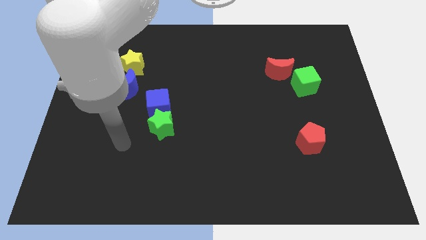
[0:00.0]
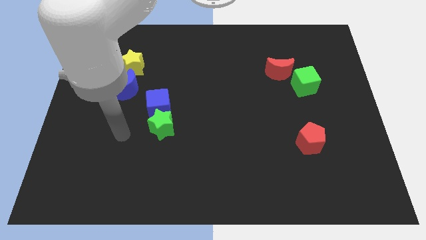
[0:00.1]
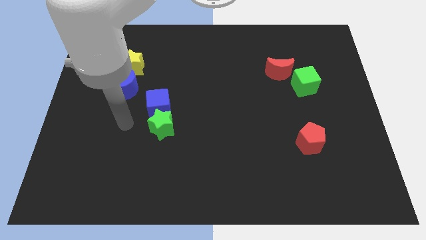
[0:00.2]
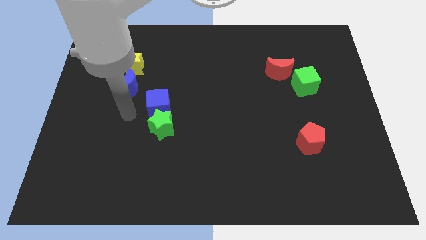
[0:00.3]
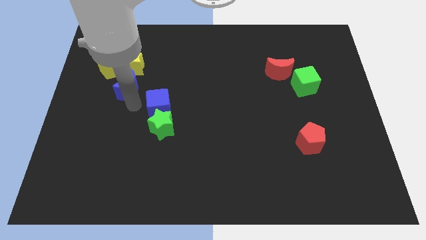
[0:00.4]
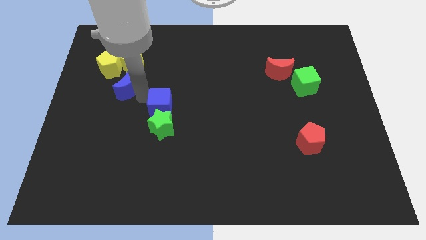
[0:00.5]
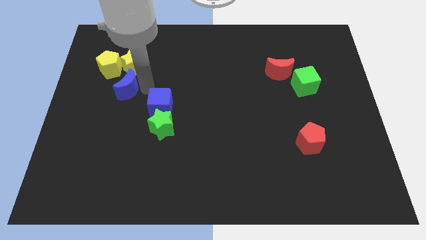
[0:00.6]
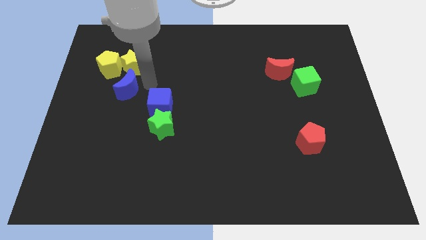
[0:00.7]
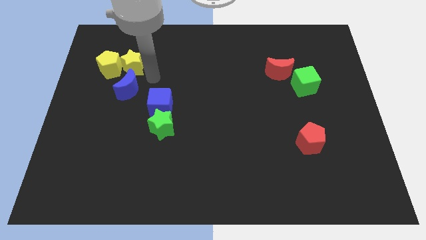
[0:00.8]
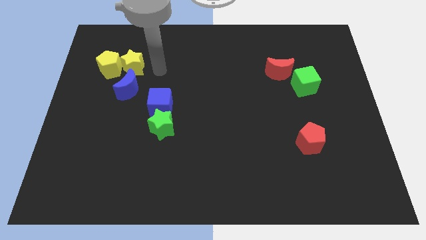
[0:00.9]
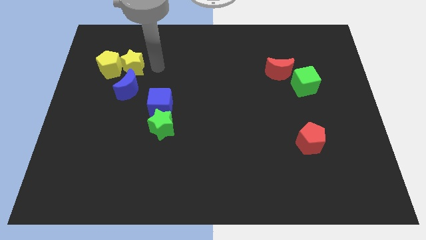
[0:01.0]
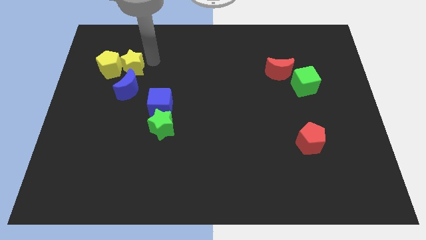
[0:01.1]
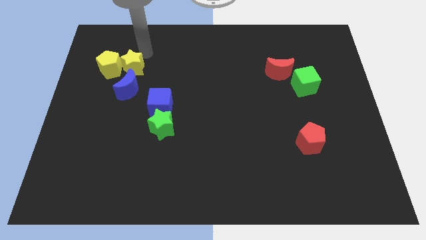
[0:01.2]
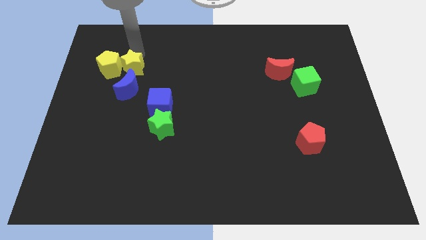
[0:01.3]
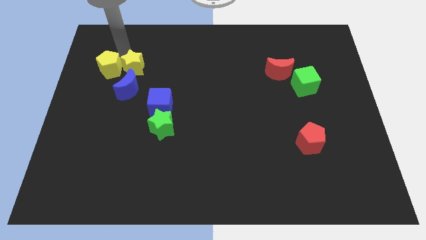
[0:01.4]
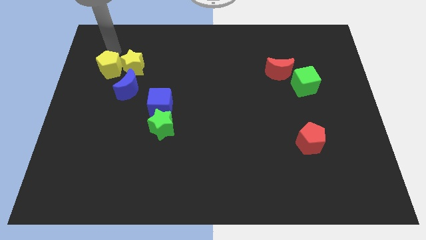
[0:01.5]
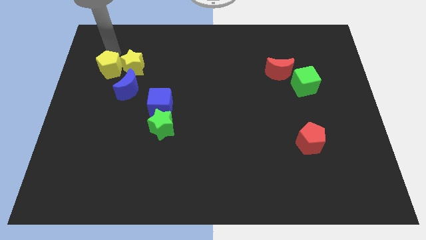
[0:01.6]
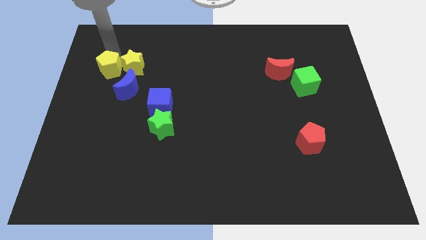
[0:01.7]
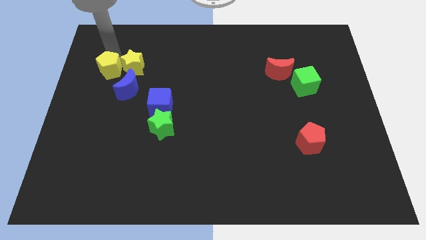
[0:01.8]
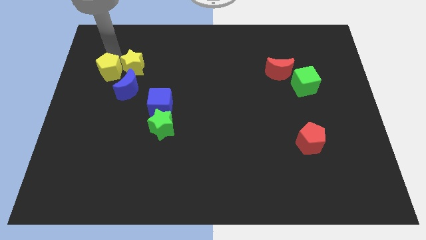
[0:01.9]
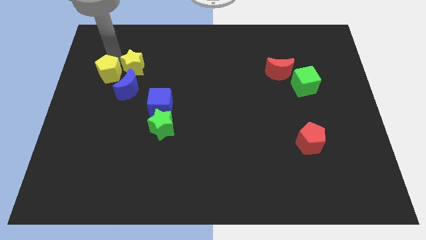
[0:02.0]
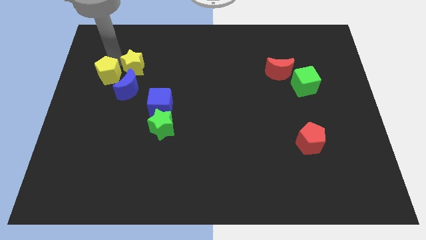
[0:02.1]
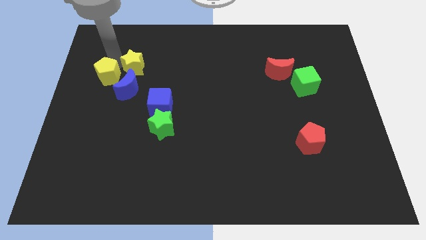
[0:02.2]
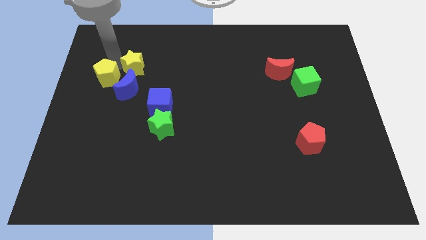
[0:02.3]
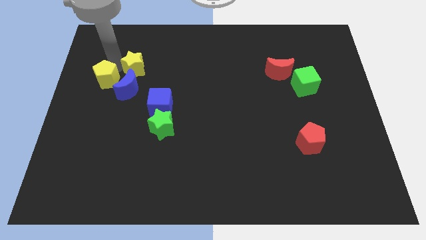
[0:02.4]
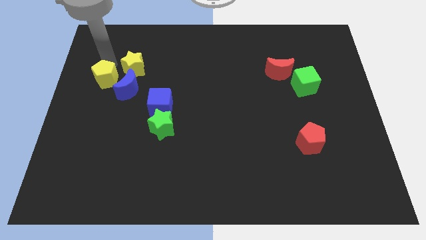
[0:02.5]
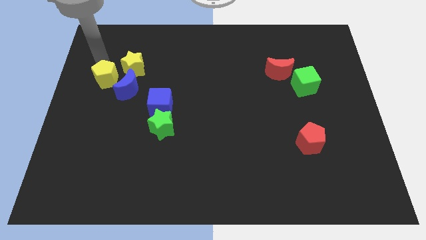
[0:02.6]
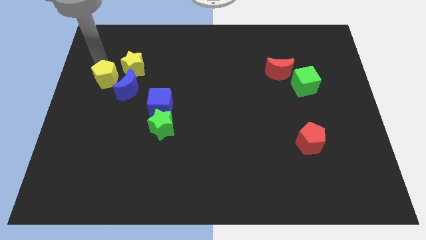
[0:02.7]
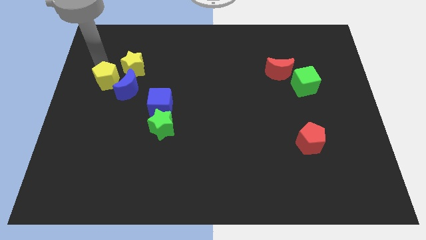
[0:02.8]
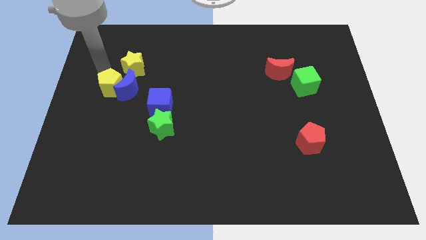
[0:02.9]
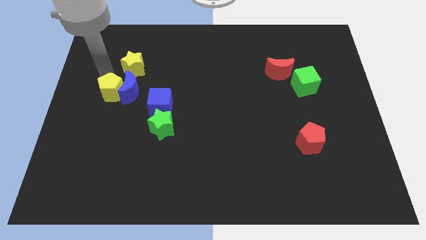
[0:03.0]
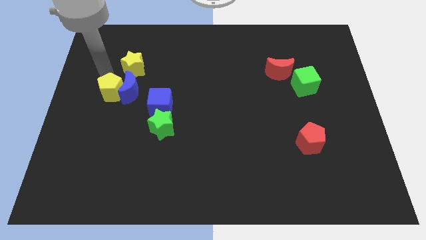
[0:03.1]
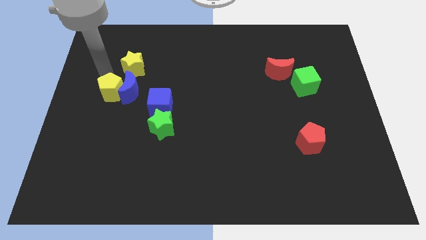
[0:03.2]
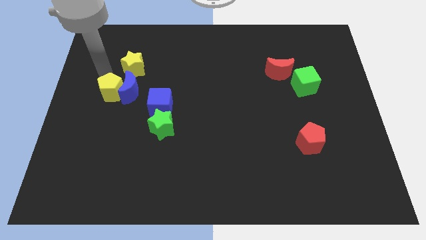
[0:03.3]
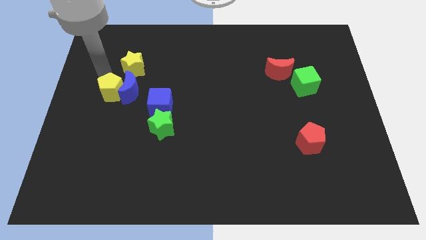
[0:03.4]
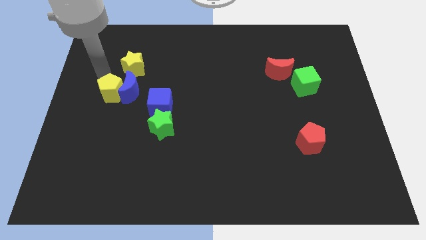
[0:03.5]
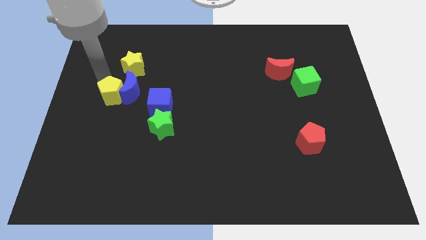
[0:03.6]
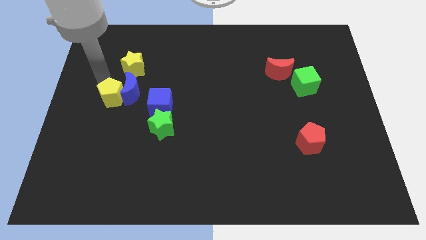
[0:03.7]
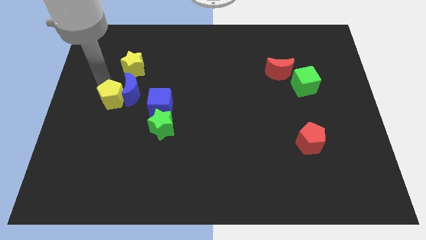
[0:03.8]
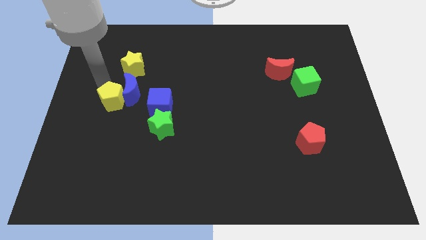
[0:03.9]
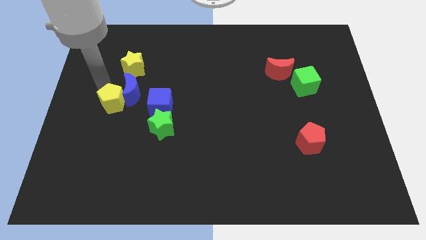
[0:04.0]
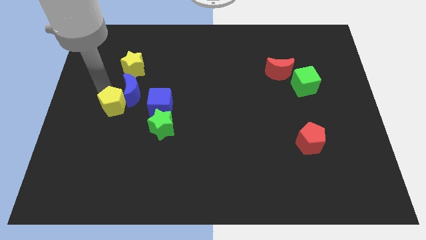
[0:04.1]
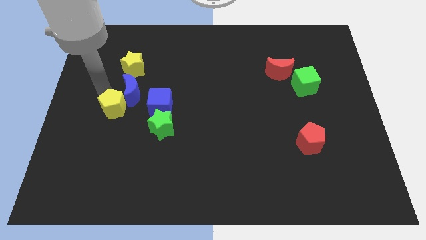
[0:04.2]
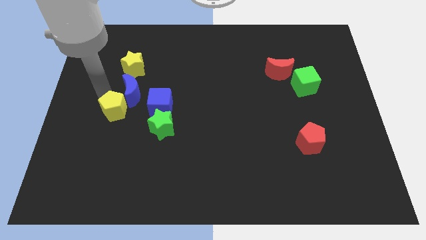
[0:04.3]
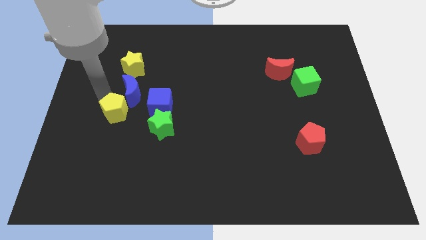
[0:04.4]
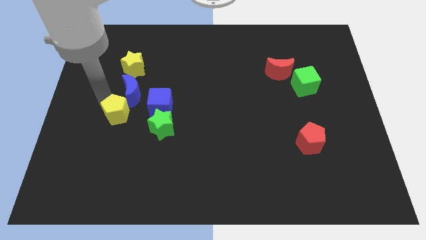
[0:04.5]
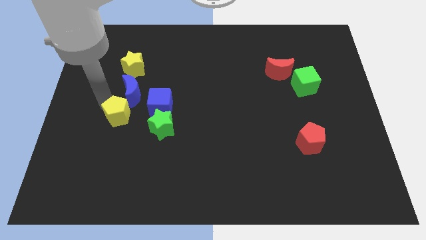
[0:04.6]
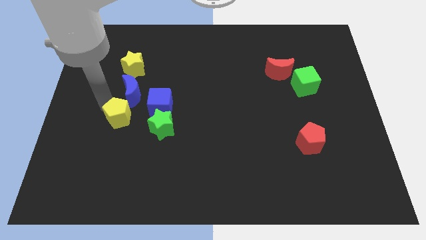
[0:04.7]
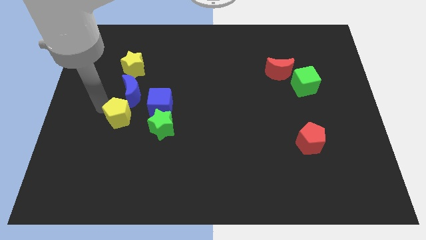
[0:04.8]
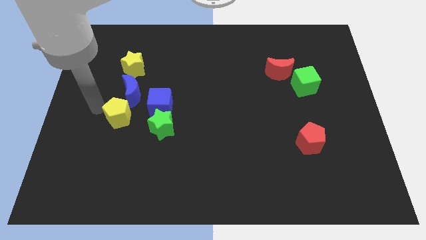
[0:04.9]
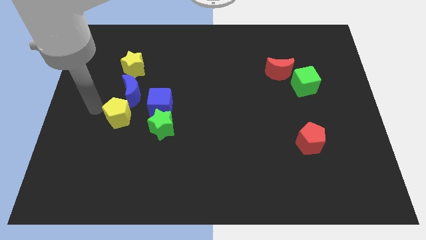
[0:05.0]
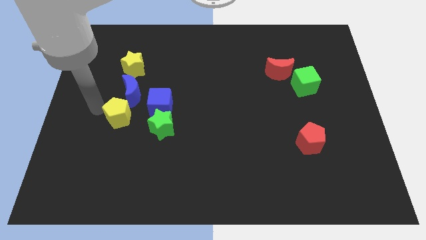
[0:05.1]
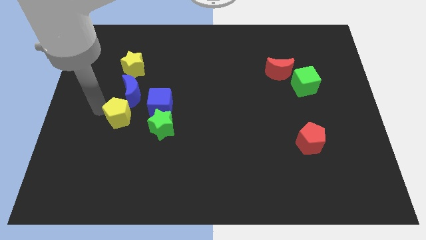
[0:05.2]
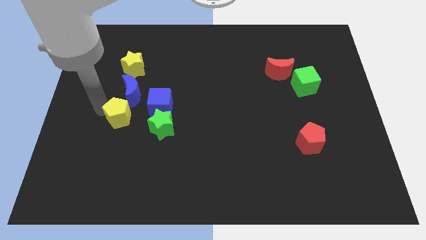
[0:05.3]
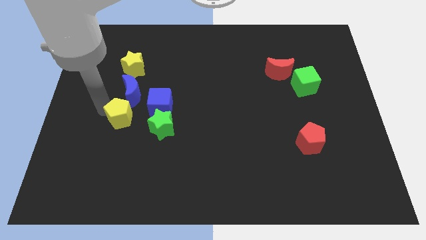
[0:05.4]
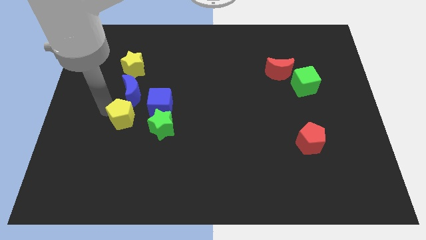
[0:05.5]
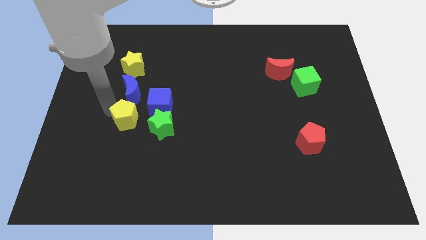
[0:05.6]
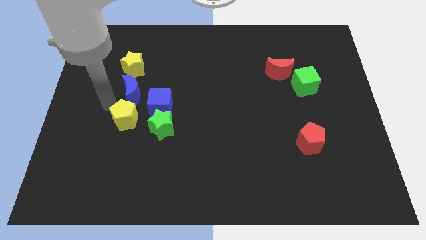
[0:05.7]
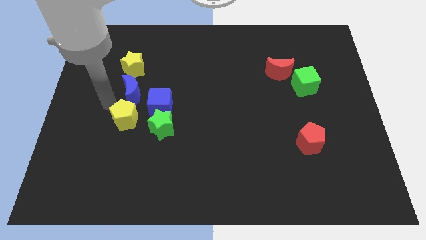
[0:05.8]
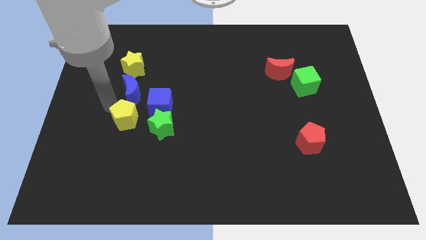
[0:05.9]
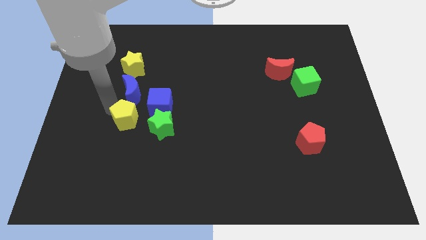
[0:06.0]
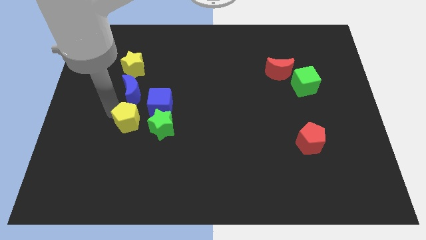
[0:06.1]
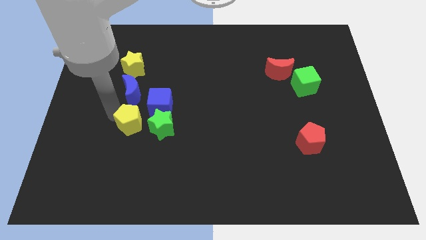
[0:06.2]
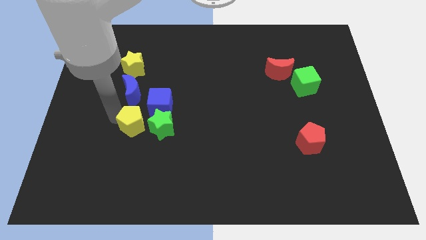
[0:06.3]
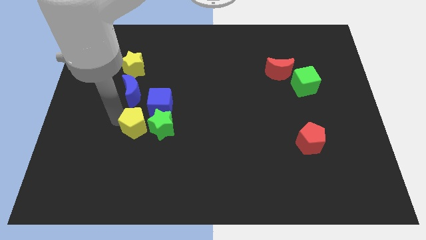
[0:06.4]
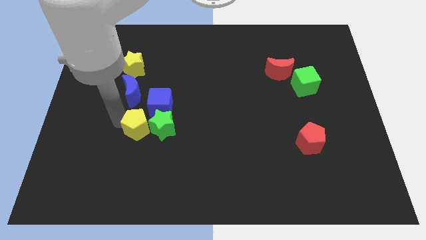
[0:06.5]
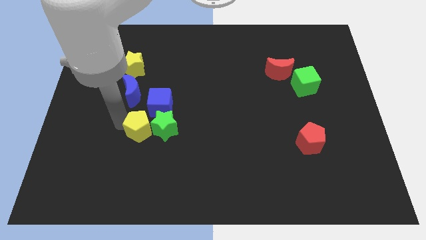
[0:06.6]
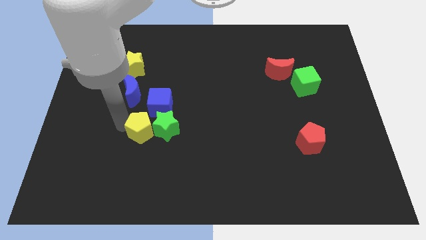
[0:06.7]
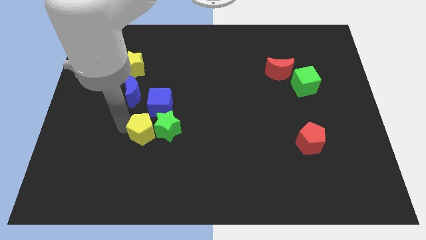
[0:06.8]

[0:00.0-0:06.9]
push the yellow pentagon down and then to the right

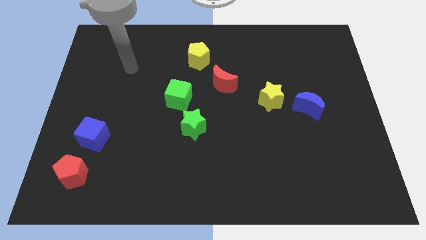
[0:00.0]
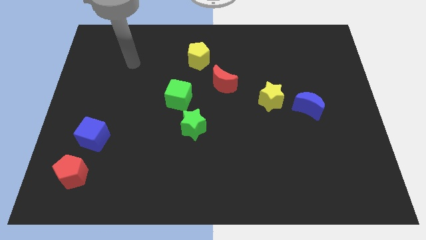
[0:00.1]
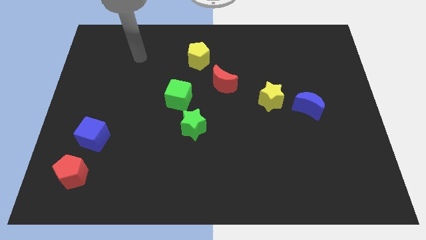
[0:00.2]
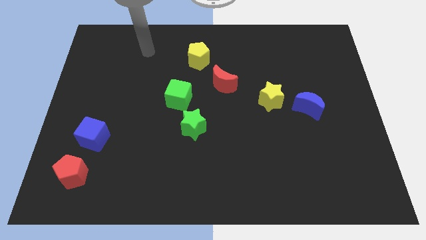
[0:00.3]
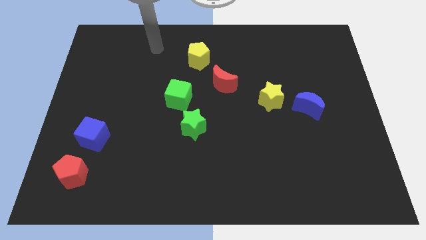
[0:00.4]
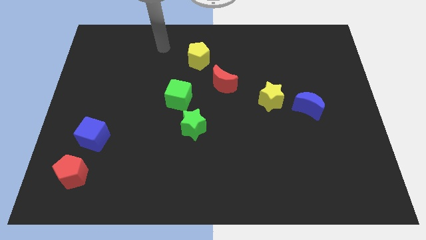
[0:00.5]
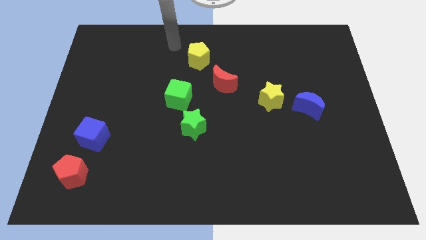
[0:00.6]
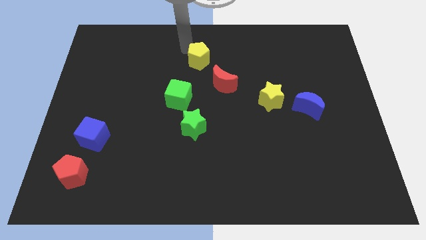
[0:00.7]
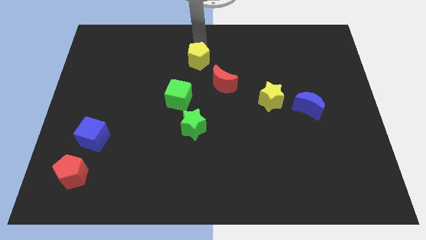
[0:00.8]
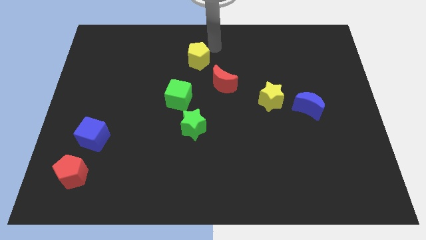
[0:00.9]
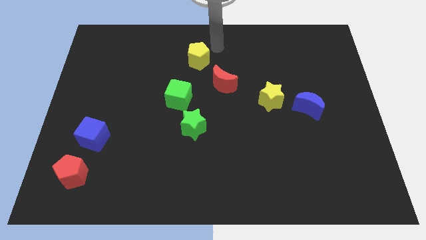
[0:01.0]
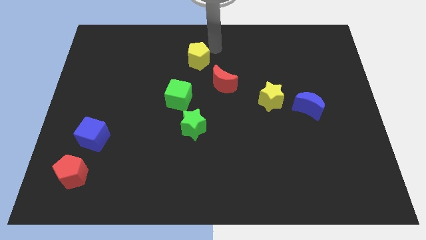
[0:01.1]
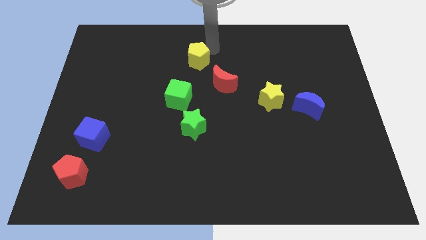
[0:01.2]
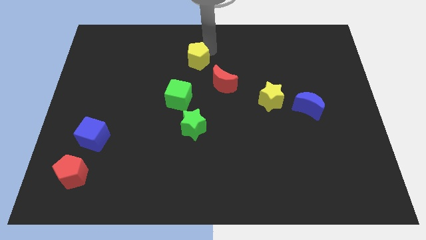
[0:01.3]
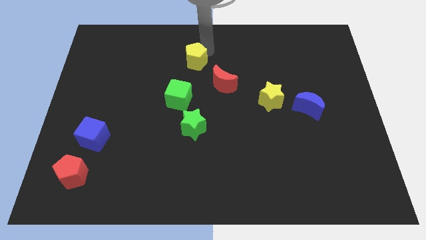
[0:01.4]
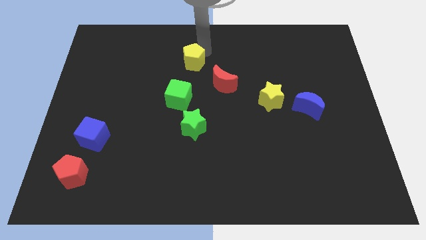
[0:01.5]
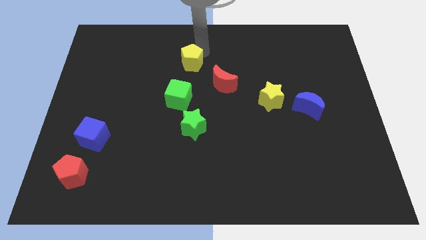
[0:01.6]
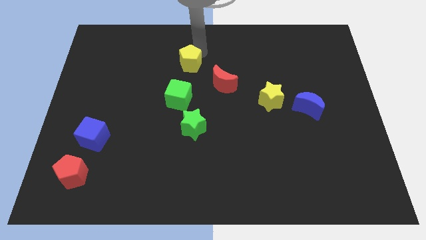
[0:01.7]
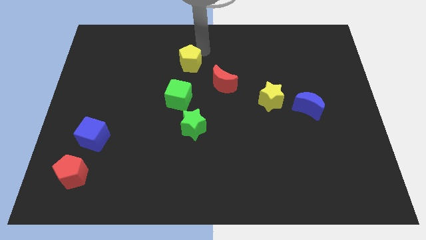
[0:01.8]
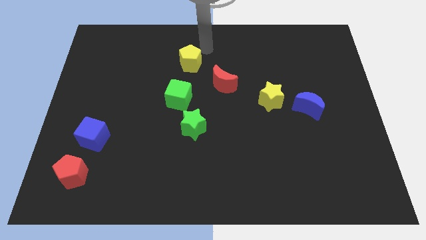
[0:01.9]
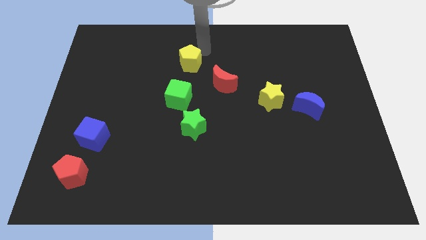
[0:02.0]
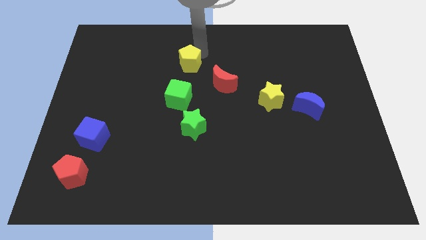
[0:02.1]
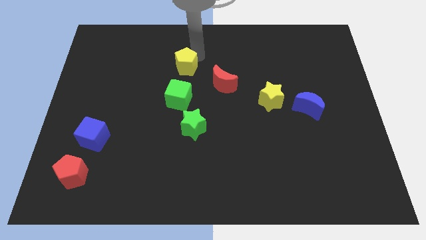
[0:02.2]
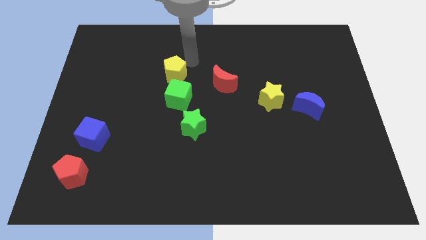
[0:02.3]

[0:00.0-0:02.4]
push the yellow pentagon a little bit down and to the left diagonally
